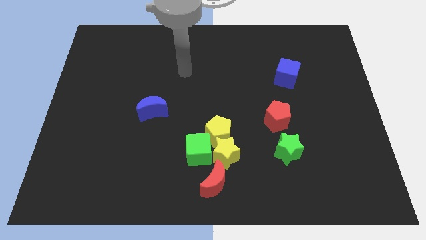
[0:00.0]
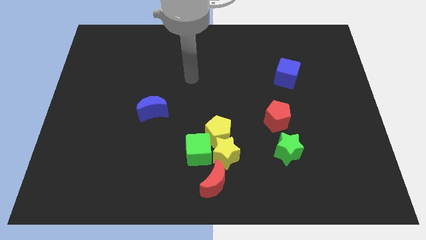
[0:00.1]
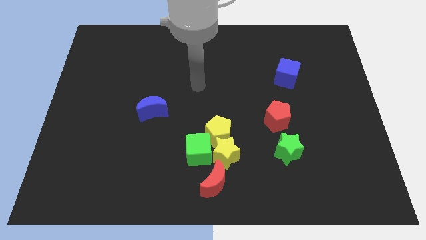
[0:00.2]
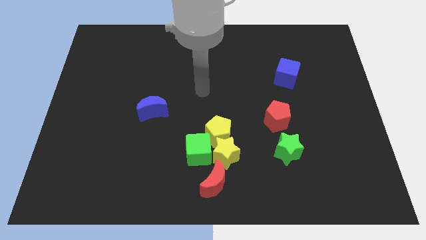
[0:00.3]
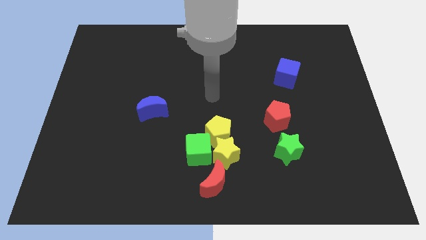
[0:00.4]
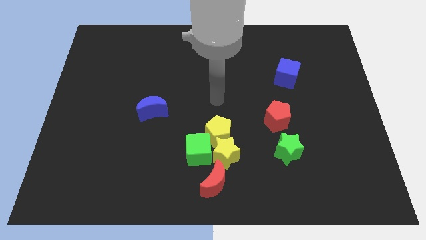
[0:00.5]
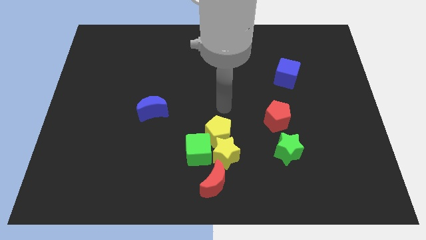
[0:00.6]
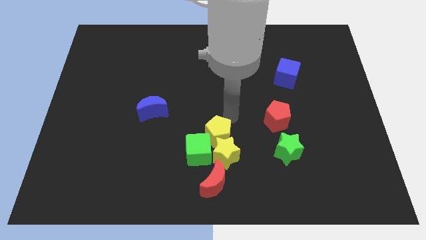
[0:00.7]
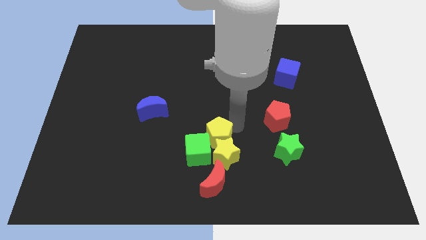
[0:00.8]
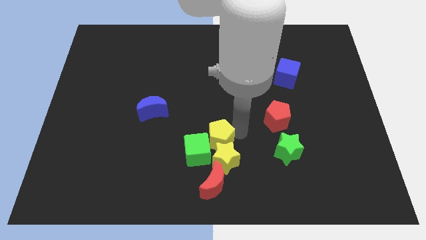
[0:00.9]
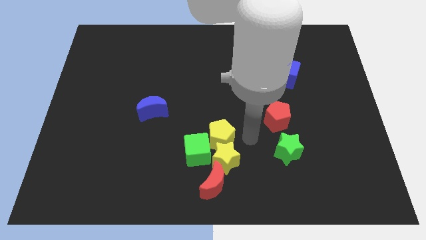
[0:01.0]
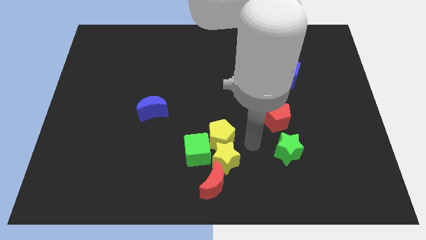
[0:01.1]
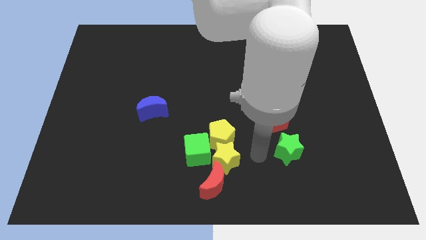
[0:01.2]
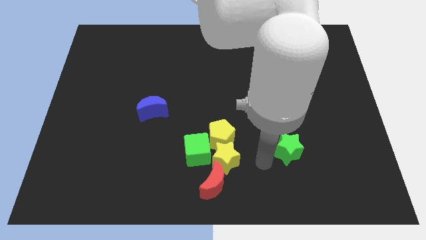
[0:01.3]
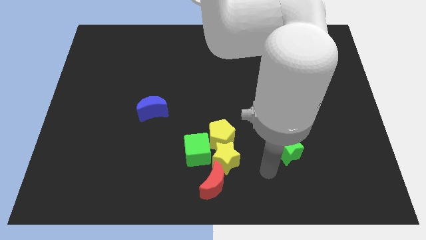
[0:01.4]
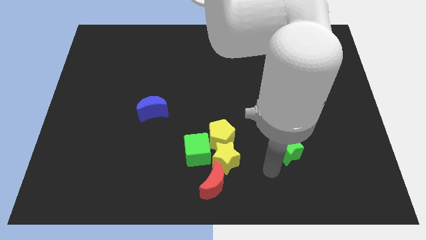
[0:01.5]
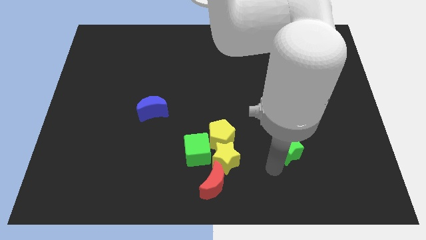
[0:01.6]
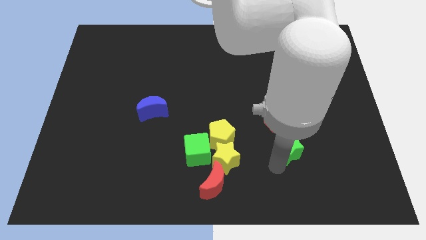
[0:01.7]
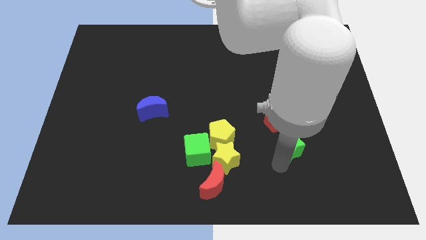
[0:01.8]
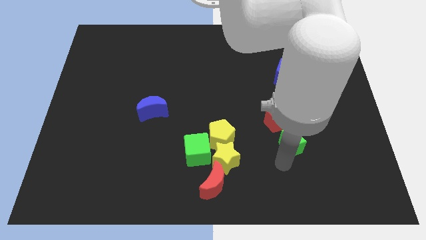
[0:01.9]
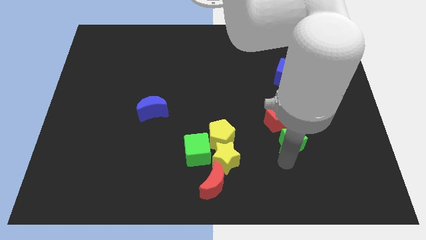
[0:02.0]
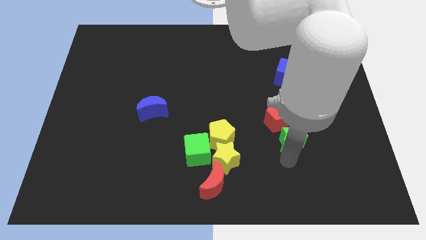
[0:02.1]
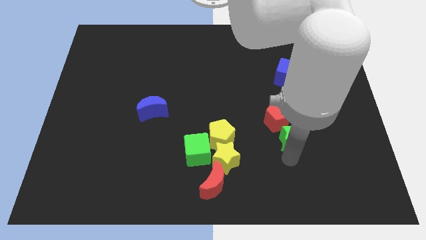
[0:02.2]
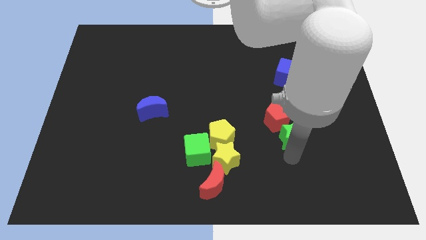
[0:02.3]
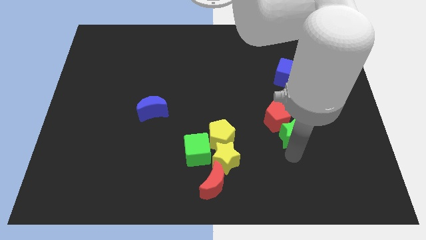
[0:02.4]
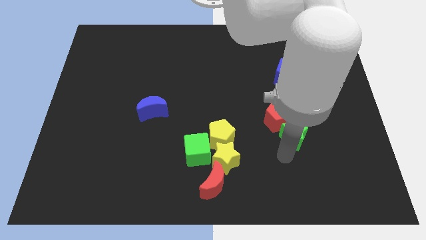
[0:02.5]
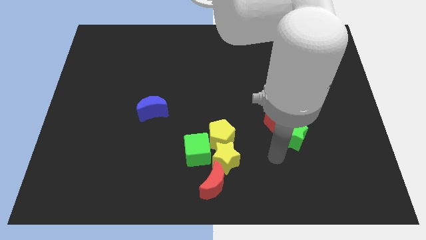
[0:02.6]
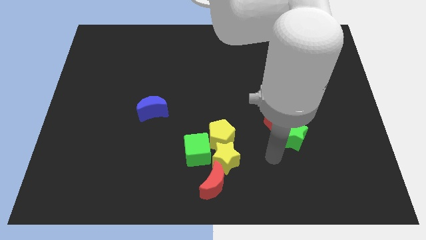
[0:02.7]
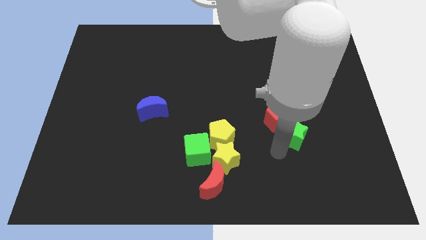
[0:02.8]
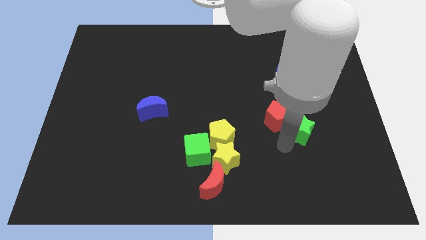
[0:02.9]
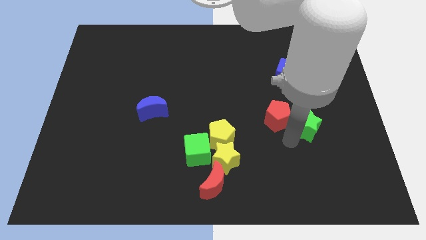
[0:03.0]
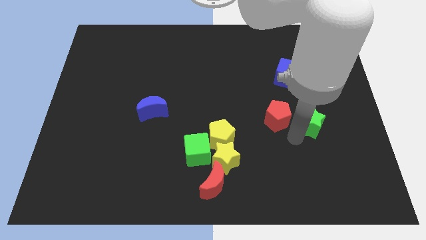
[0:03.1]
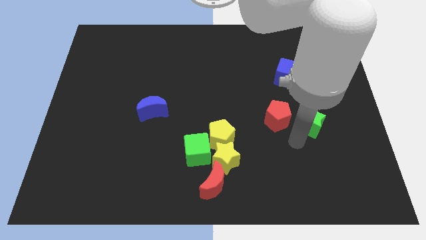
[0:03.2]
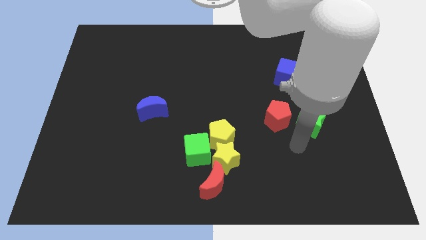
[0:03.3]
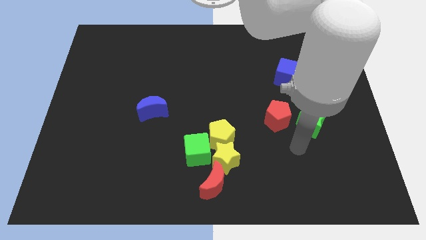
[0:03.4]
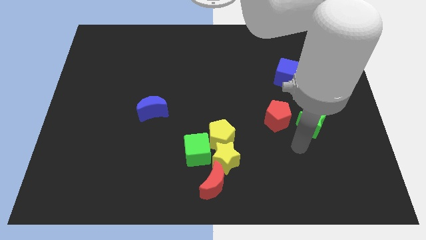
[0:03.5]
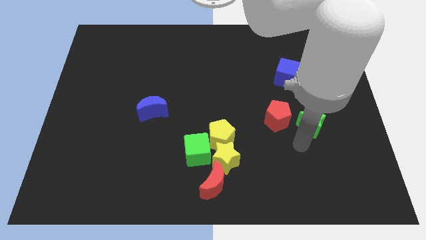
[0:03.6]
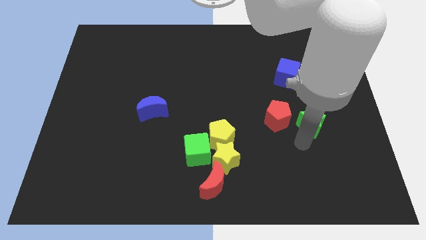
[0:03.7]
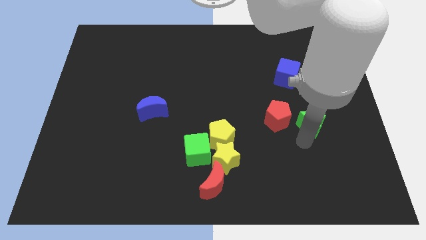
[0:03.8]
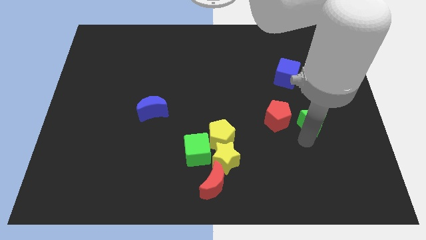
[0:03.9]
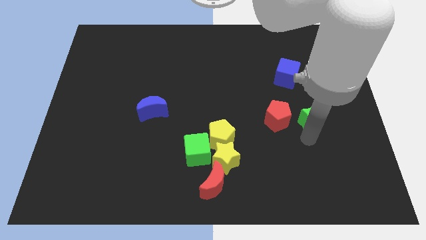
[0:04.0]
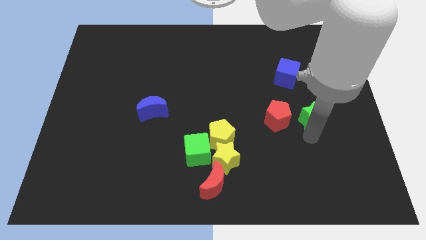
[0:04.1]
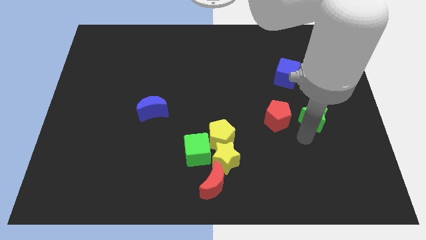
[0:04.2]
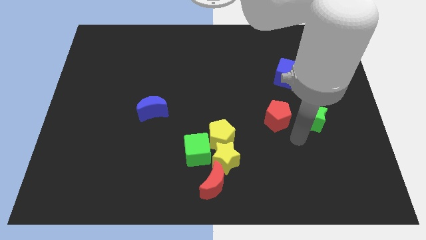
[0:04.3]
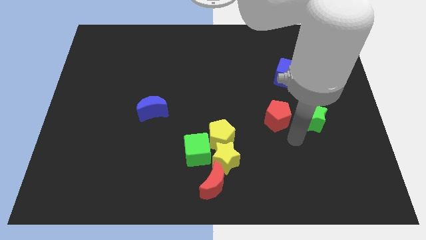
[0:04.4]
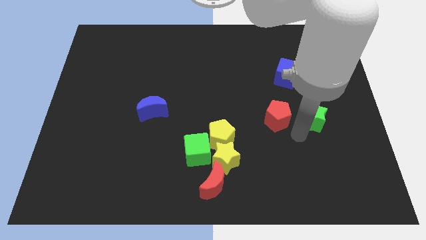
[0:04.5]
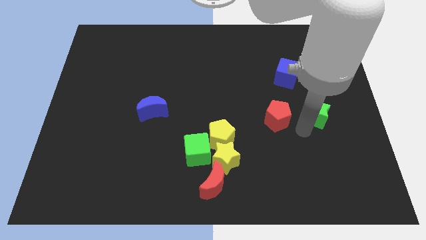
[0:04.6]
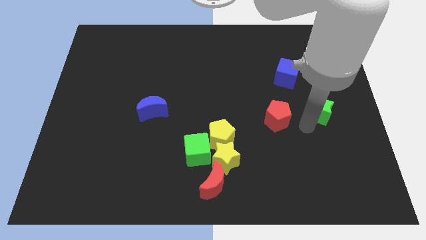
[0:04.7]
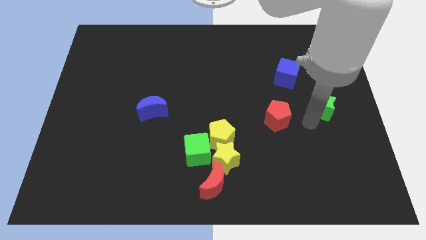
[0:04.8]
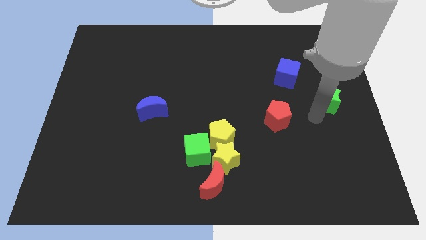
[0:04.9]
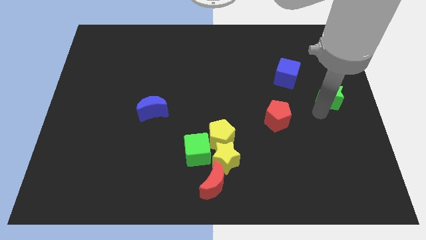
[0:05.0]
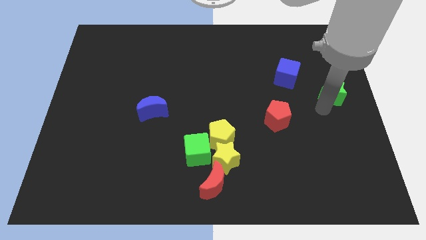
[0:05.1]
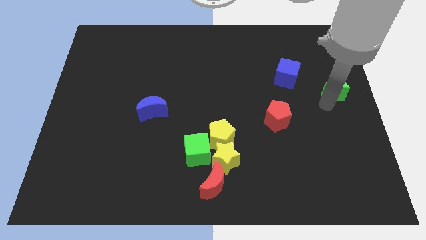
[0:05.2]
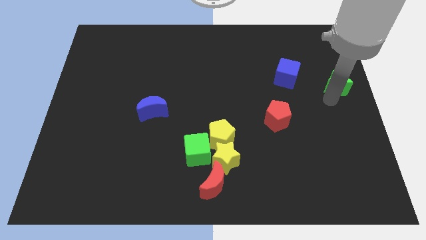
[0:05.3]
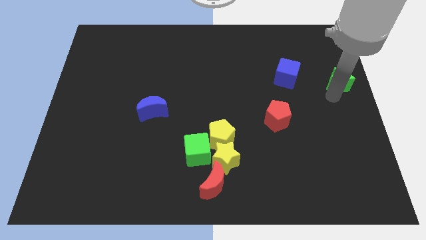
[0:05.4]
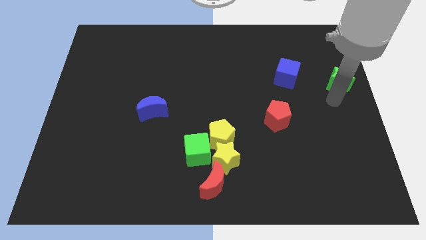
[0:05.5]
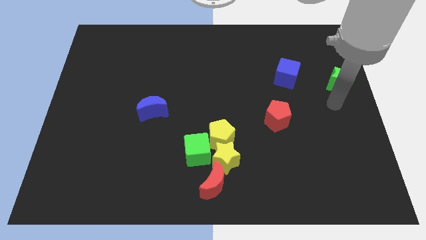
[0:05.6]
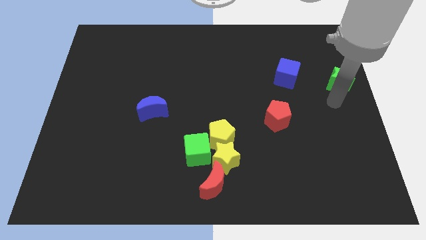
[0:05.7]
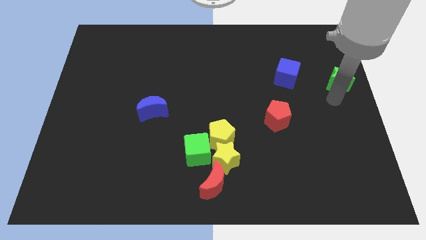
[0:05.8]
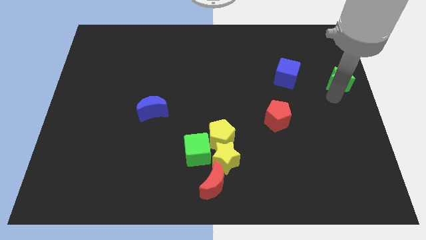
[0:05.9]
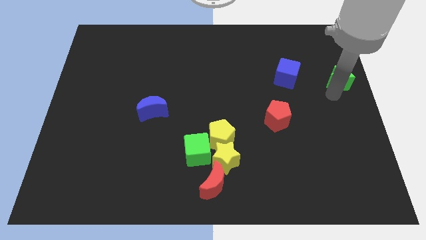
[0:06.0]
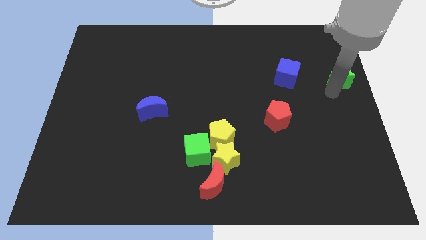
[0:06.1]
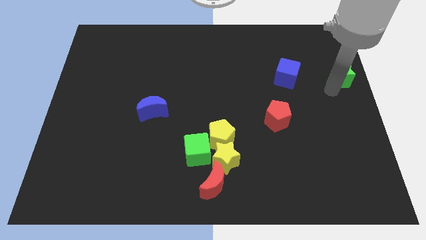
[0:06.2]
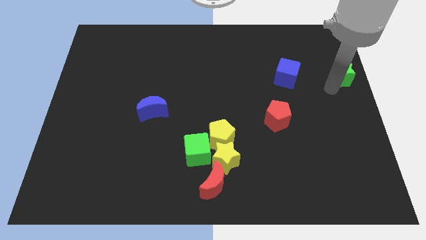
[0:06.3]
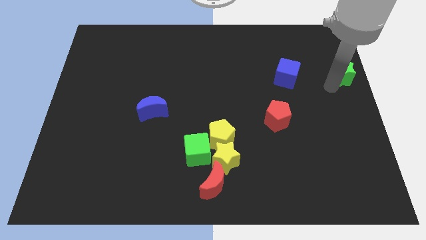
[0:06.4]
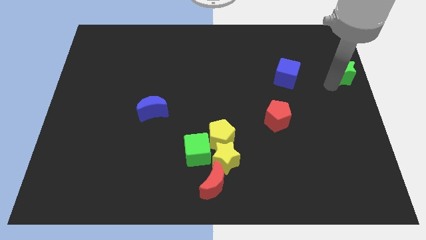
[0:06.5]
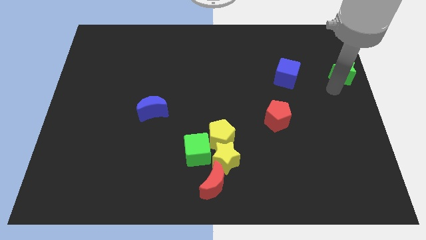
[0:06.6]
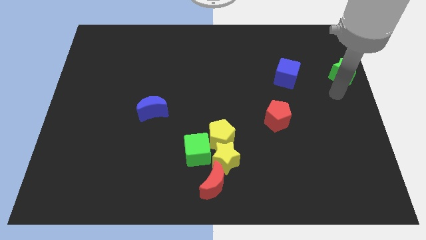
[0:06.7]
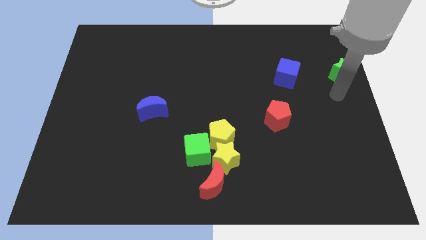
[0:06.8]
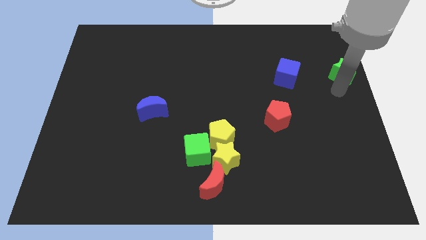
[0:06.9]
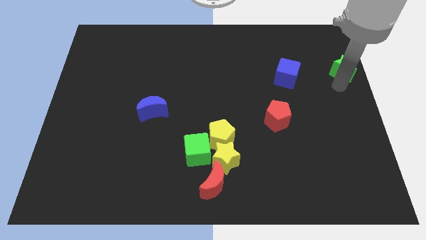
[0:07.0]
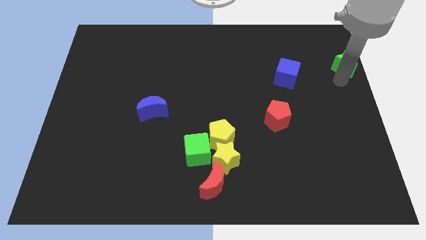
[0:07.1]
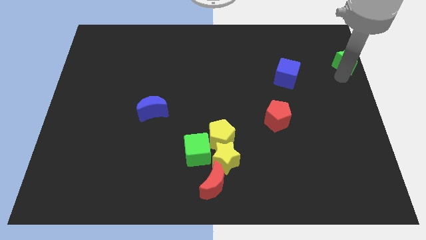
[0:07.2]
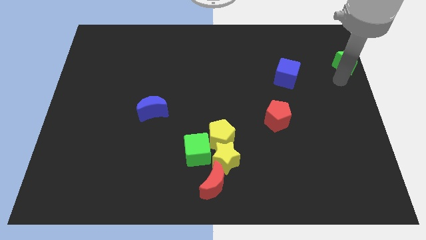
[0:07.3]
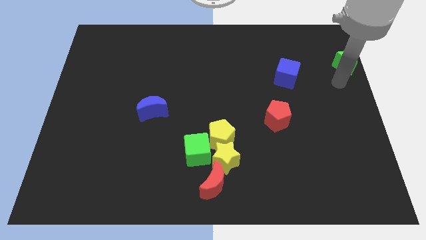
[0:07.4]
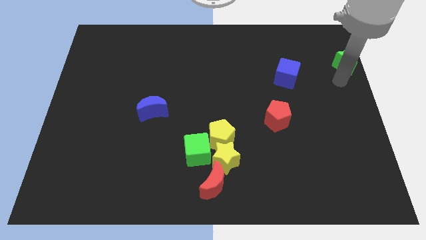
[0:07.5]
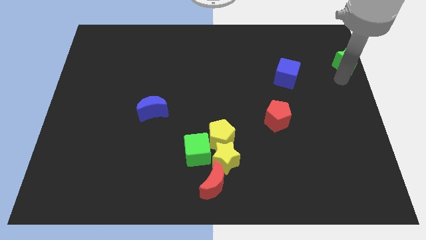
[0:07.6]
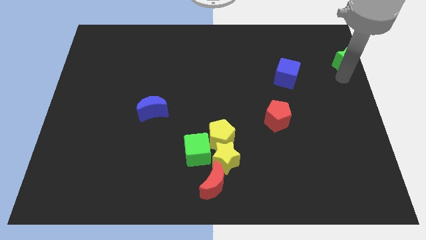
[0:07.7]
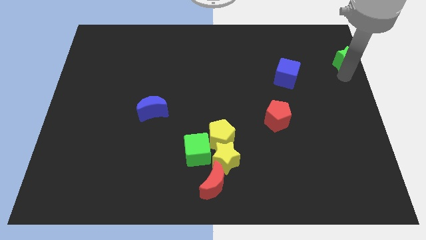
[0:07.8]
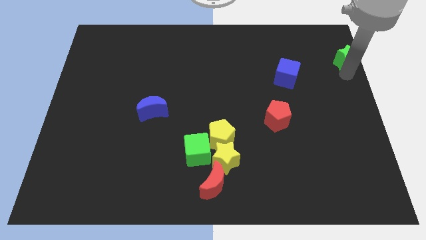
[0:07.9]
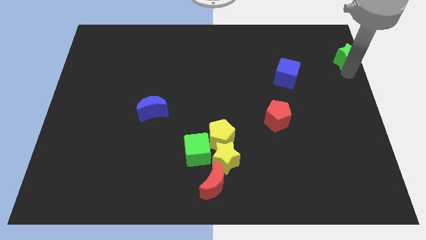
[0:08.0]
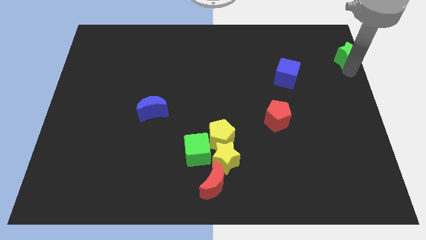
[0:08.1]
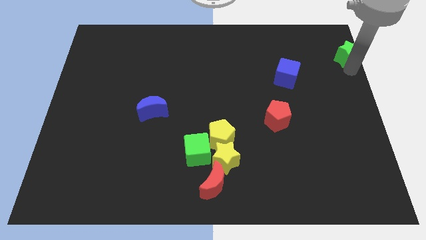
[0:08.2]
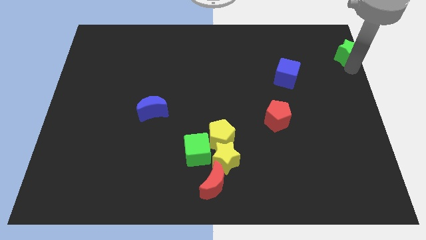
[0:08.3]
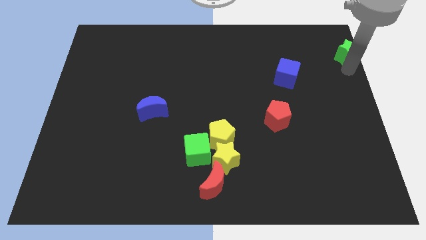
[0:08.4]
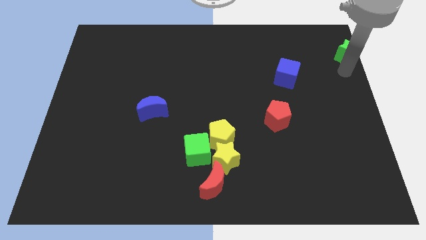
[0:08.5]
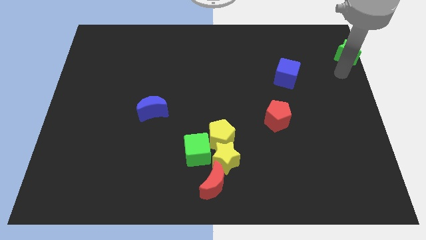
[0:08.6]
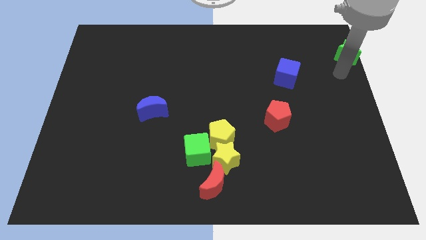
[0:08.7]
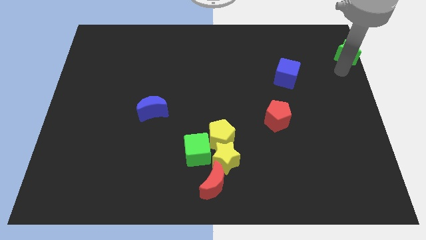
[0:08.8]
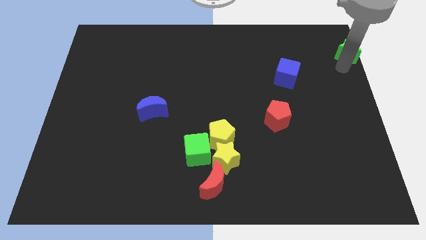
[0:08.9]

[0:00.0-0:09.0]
move the green star to the upper right corner
